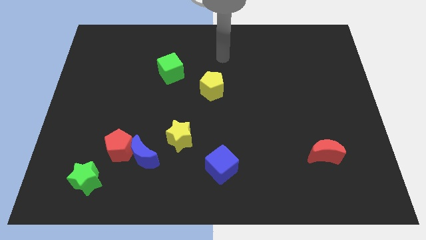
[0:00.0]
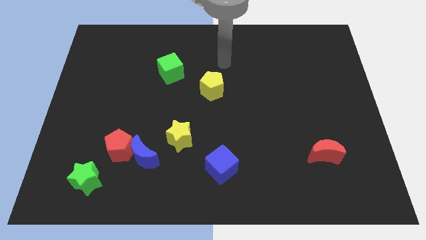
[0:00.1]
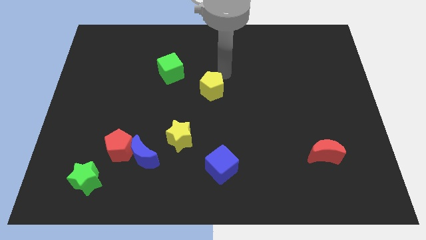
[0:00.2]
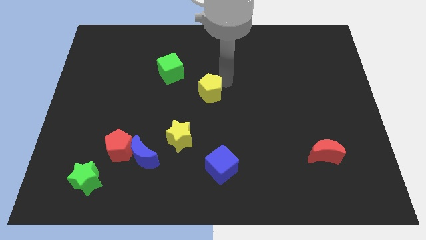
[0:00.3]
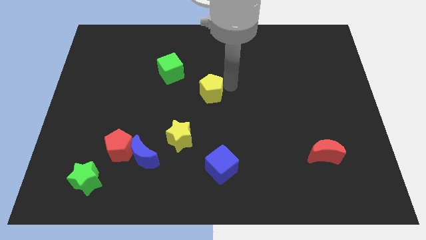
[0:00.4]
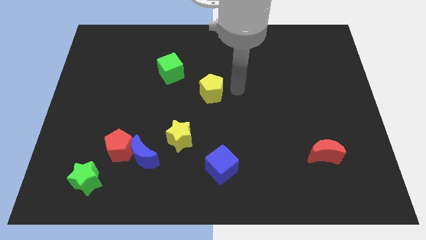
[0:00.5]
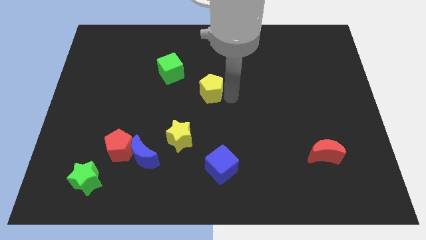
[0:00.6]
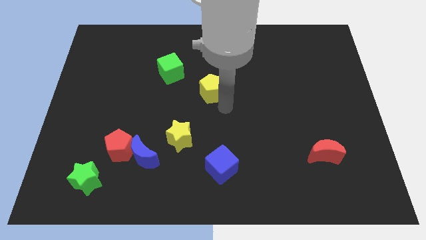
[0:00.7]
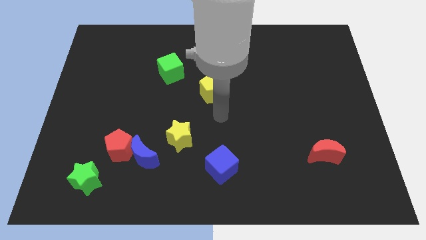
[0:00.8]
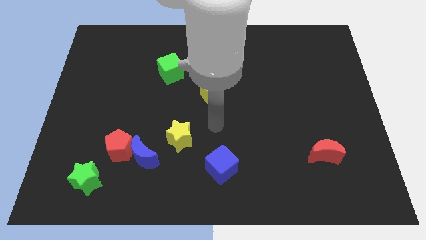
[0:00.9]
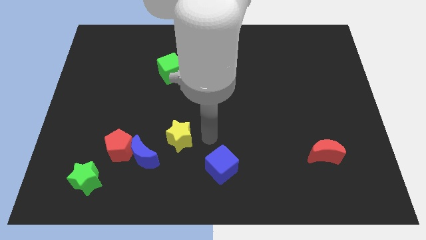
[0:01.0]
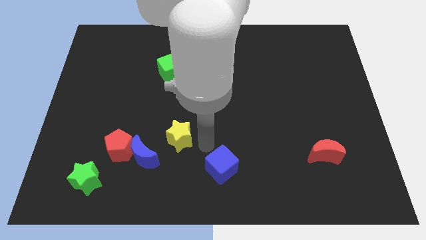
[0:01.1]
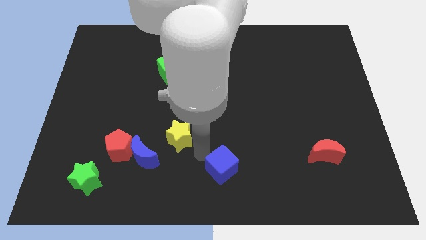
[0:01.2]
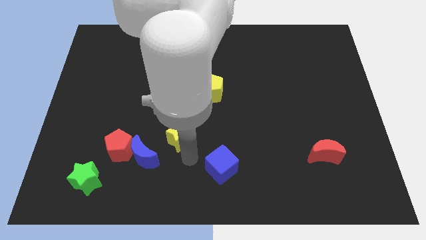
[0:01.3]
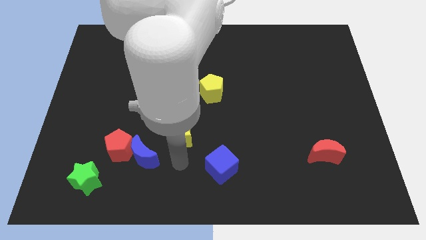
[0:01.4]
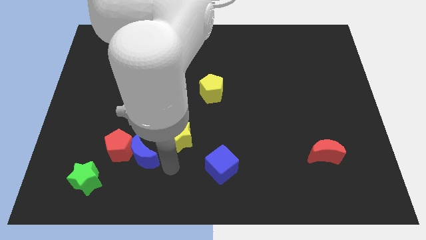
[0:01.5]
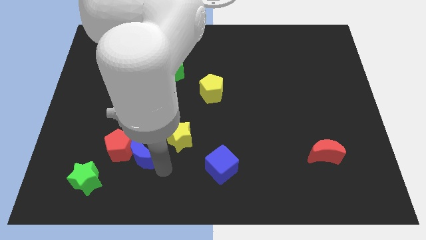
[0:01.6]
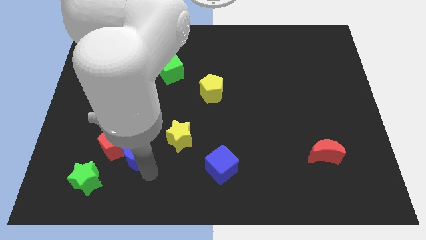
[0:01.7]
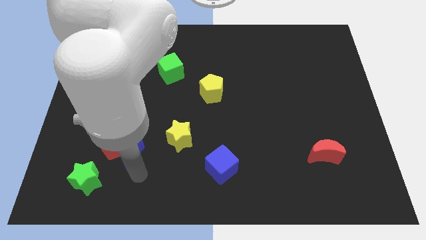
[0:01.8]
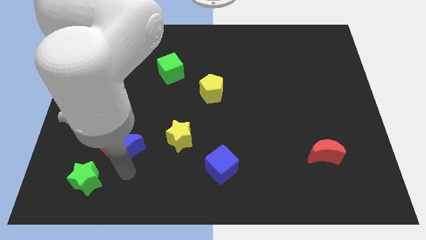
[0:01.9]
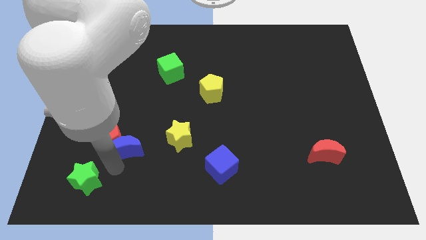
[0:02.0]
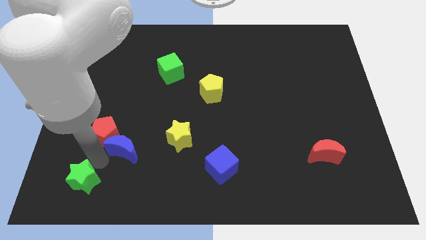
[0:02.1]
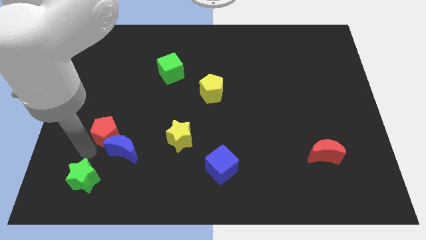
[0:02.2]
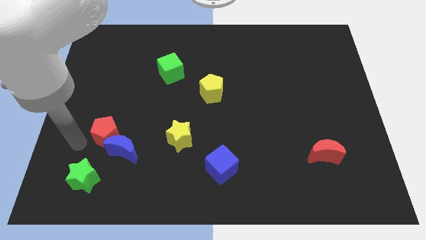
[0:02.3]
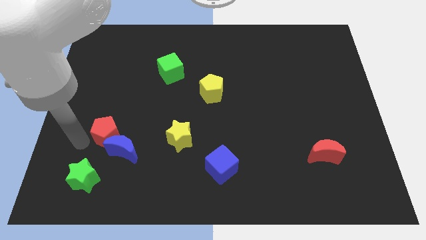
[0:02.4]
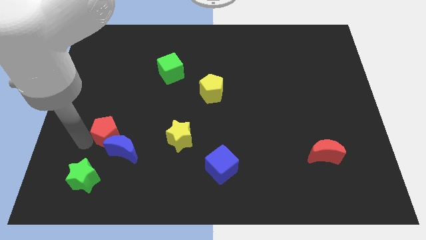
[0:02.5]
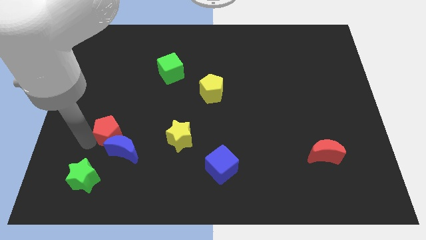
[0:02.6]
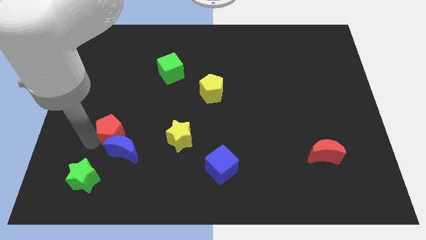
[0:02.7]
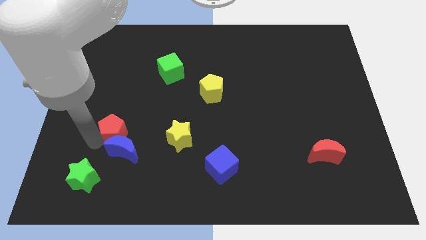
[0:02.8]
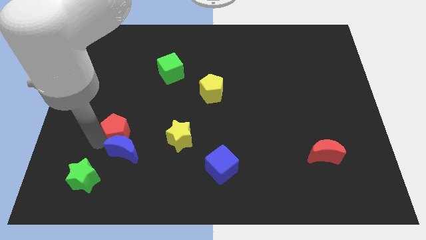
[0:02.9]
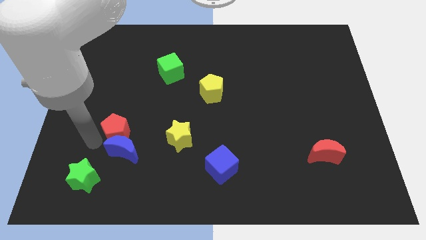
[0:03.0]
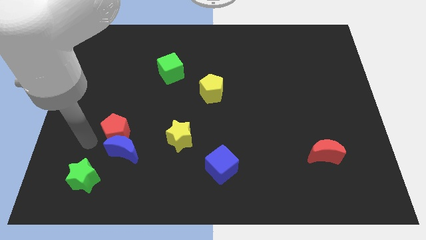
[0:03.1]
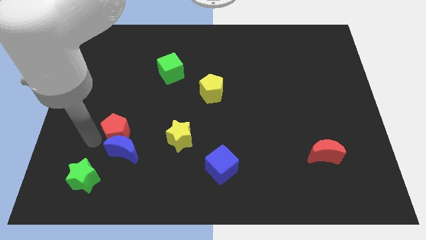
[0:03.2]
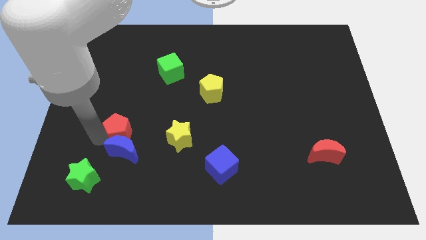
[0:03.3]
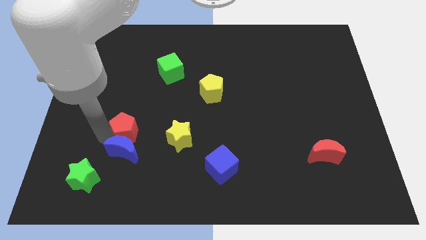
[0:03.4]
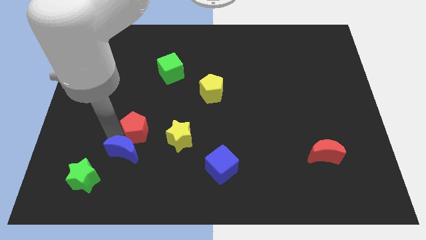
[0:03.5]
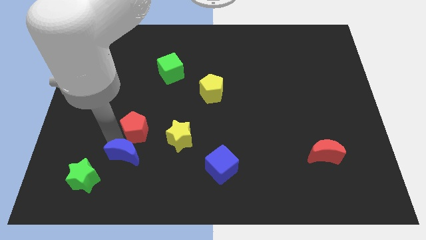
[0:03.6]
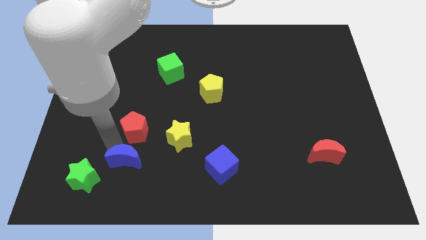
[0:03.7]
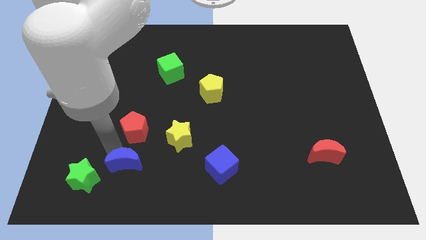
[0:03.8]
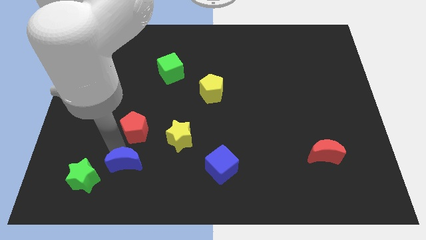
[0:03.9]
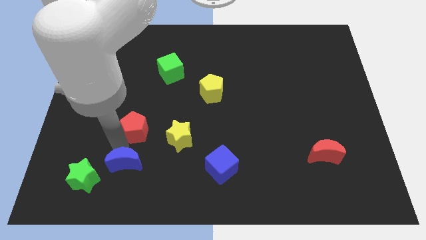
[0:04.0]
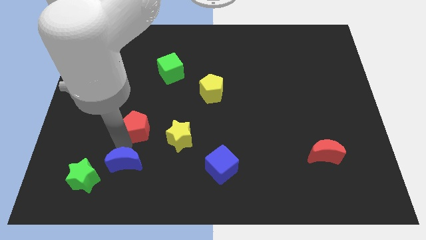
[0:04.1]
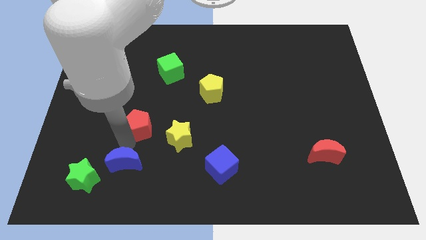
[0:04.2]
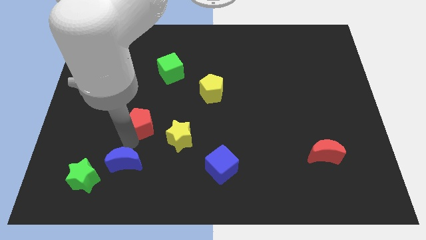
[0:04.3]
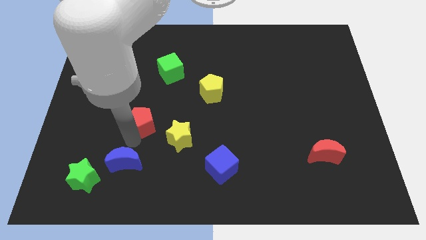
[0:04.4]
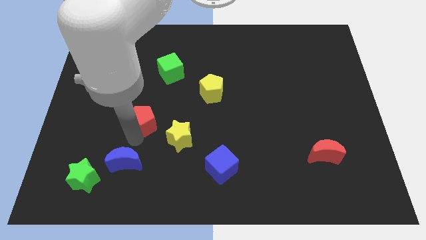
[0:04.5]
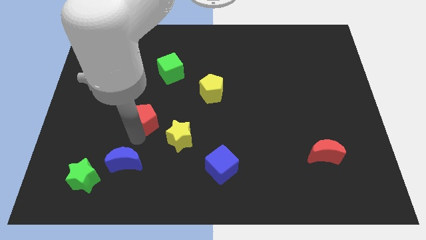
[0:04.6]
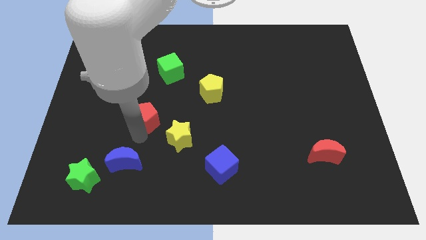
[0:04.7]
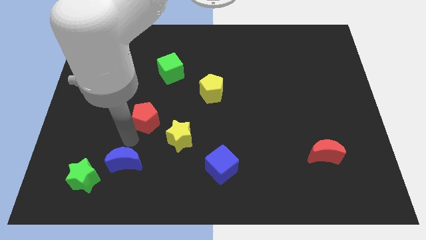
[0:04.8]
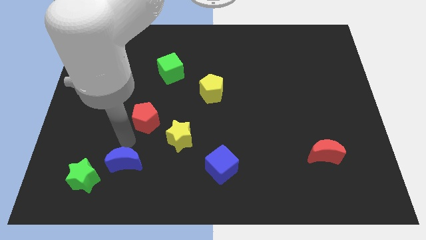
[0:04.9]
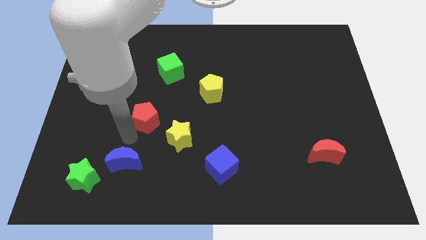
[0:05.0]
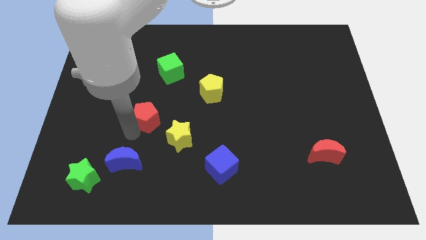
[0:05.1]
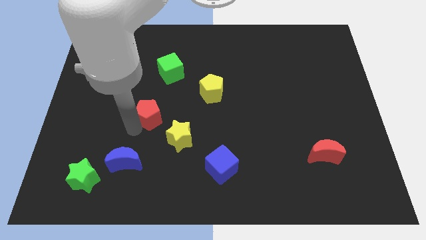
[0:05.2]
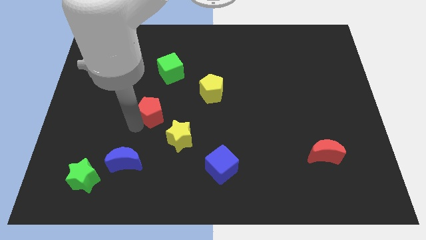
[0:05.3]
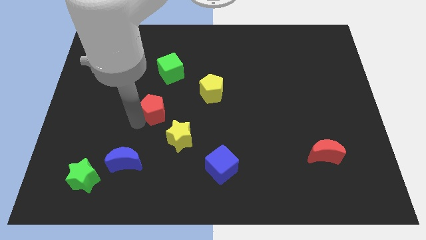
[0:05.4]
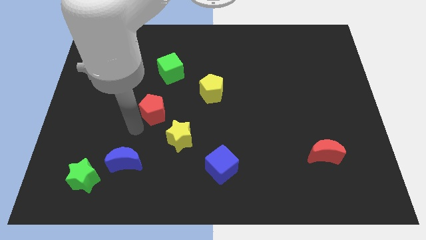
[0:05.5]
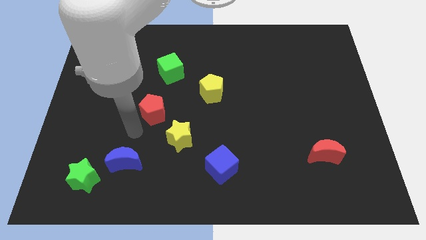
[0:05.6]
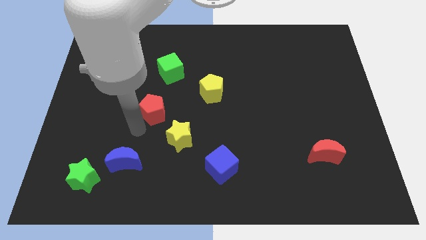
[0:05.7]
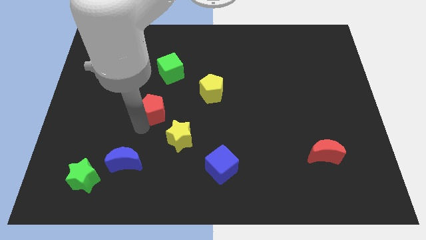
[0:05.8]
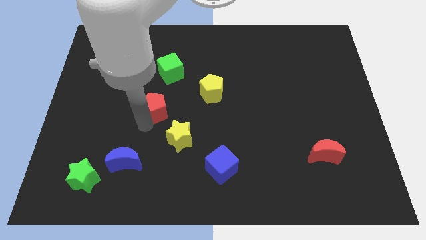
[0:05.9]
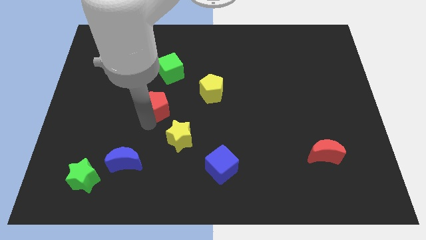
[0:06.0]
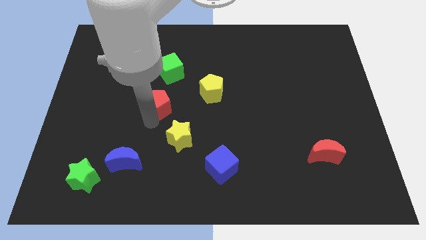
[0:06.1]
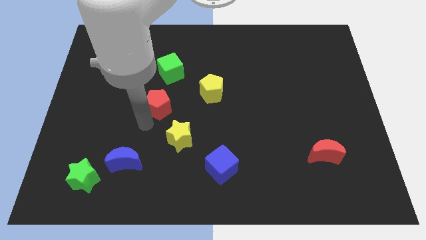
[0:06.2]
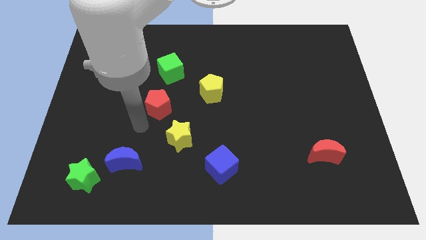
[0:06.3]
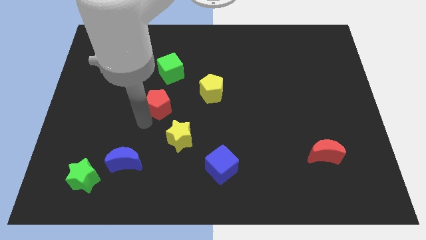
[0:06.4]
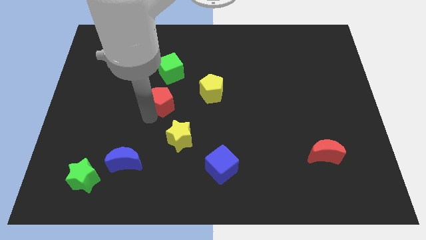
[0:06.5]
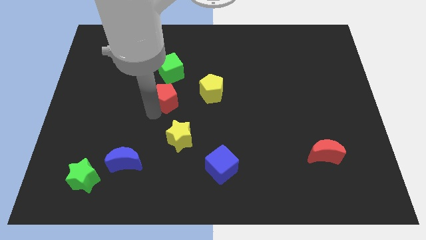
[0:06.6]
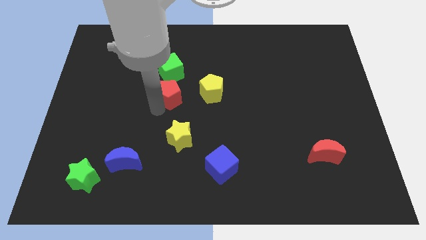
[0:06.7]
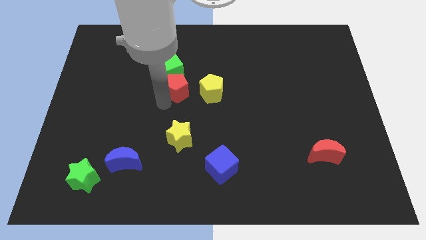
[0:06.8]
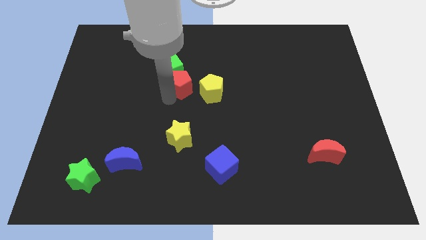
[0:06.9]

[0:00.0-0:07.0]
slide the red pentagon to the top left of the yellow pentagon

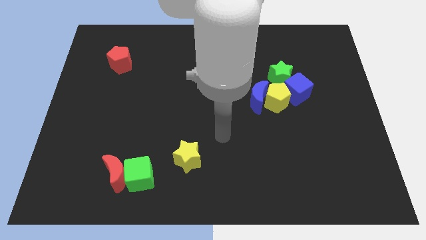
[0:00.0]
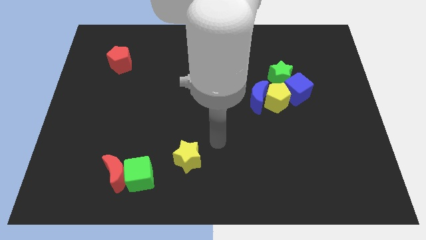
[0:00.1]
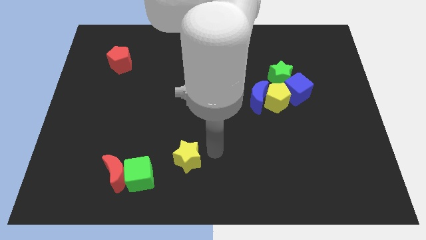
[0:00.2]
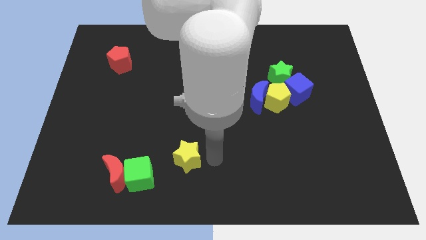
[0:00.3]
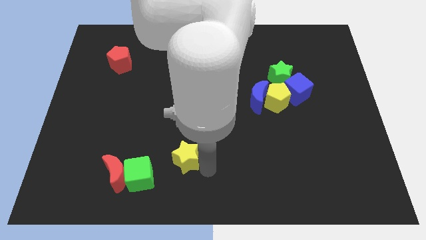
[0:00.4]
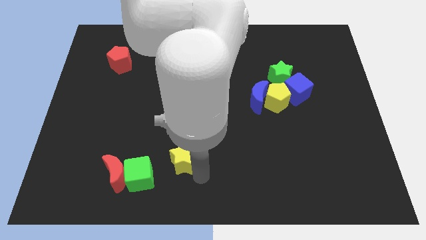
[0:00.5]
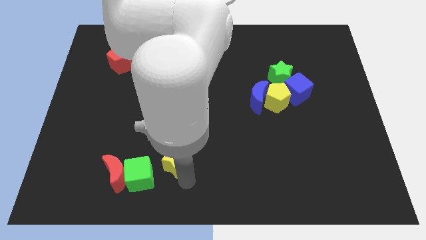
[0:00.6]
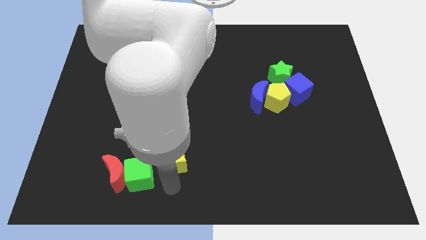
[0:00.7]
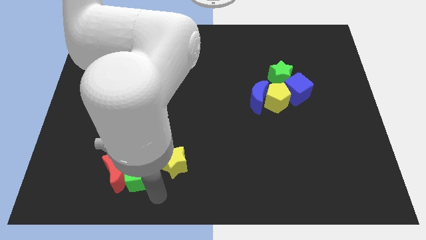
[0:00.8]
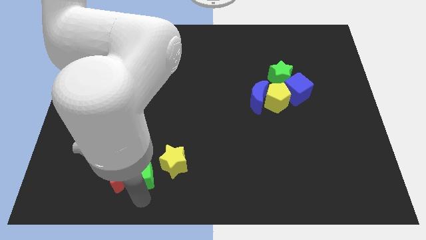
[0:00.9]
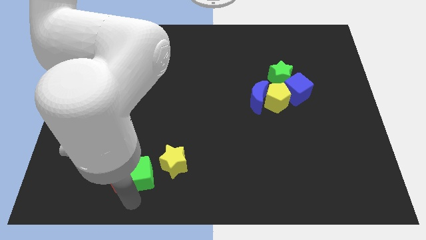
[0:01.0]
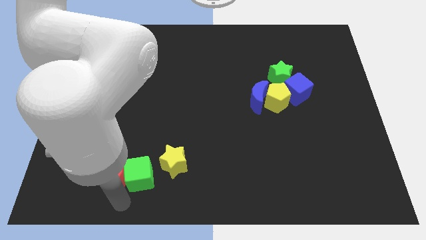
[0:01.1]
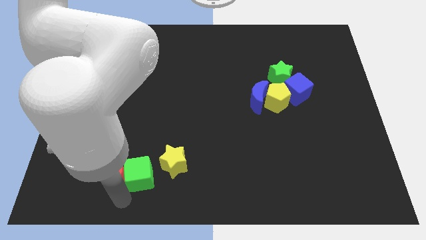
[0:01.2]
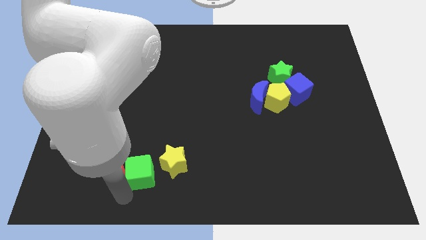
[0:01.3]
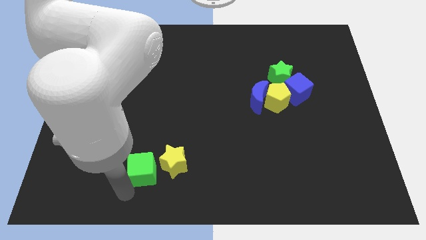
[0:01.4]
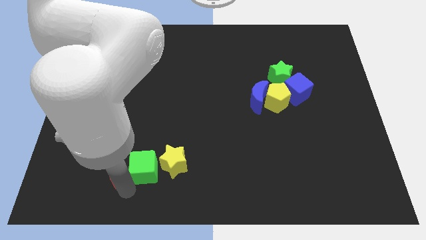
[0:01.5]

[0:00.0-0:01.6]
push the green cube diagonally up and to the left of the yellow star
